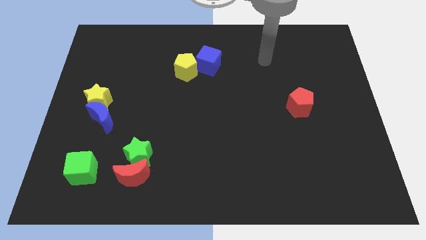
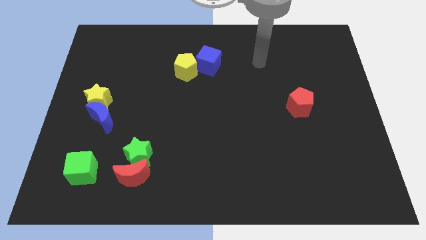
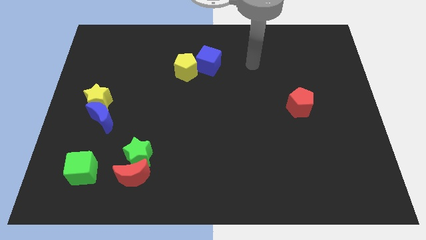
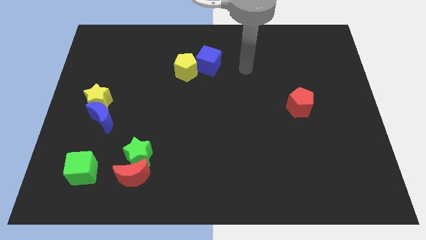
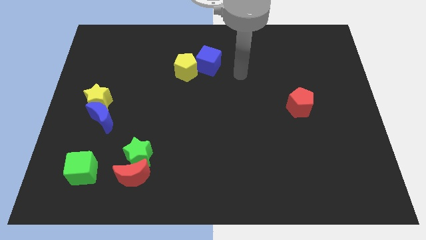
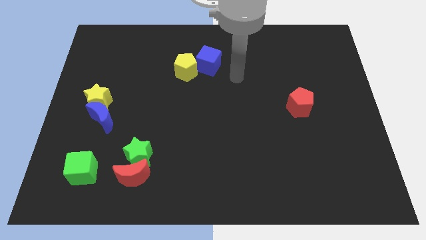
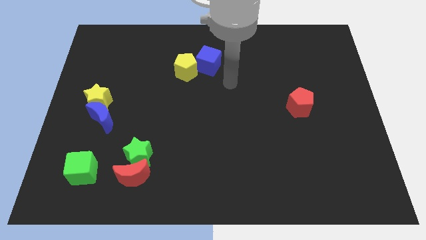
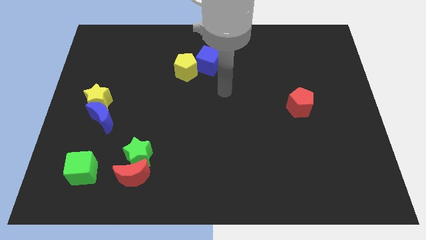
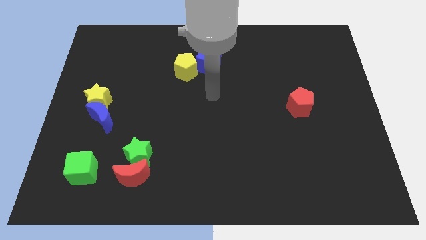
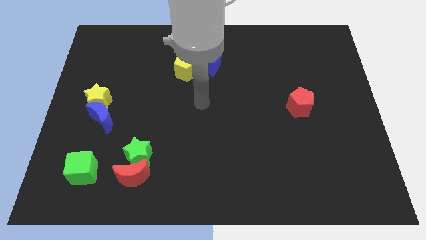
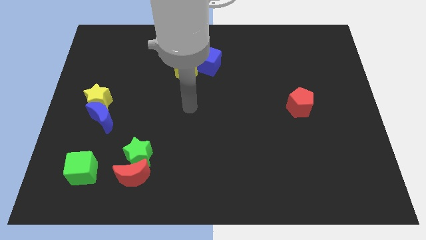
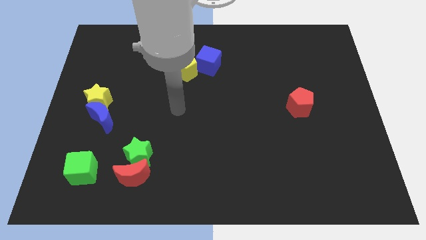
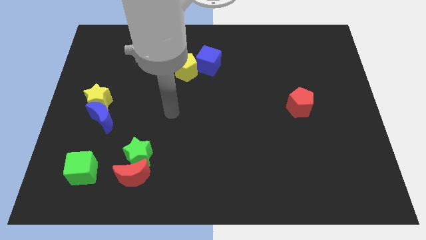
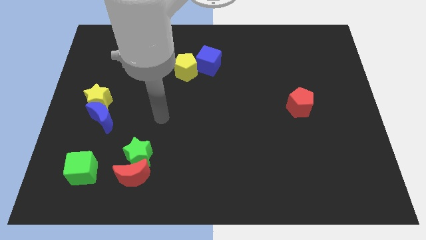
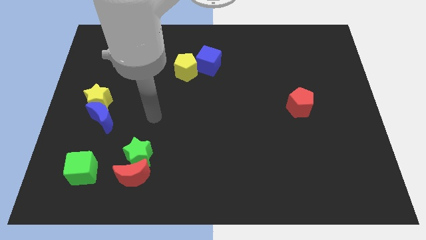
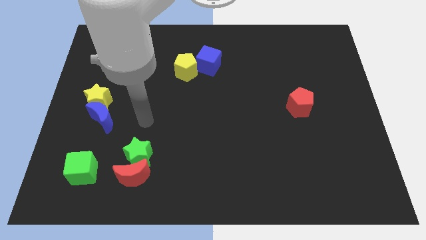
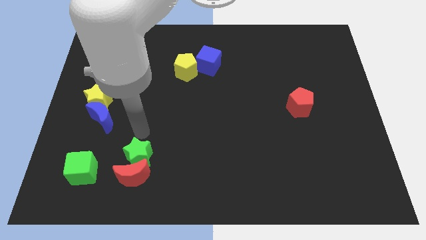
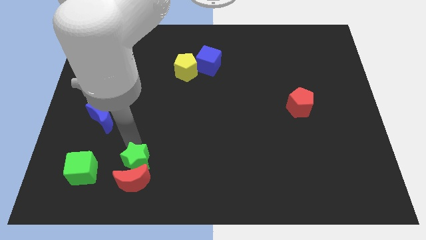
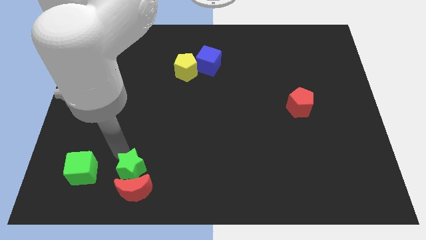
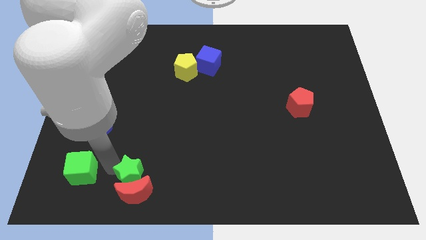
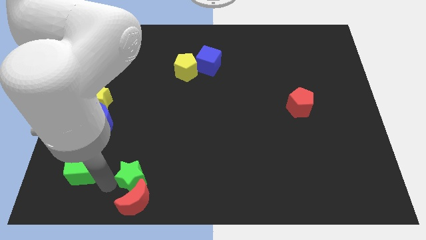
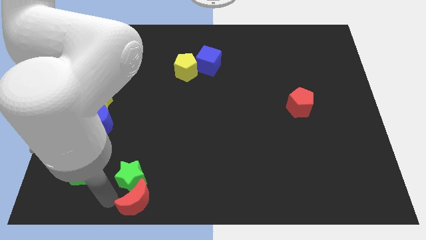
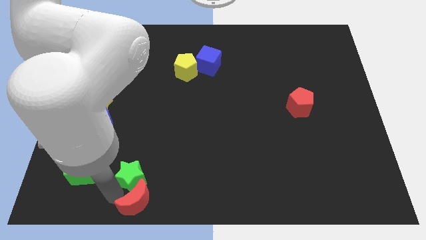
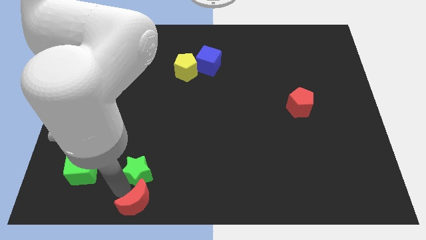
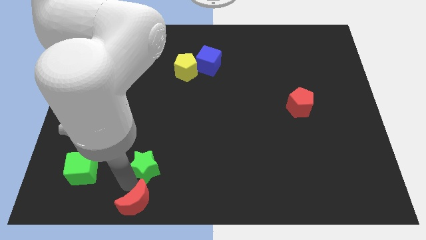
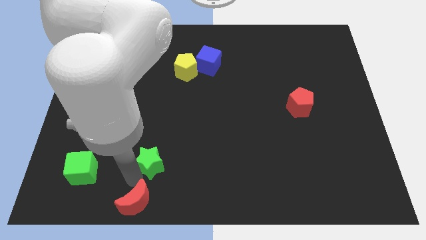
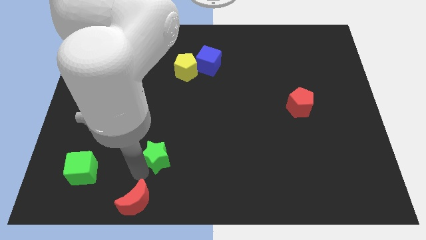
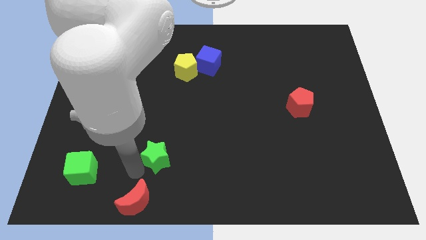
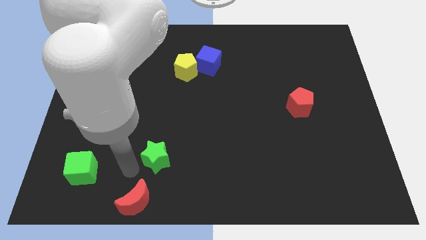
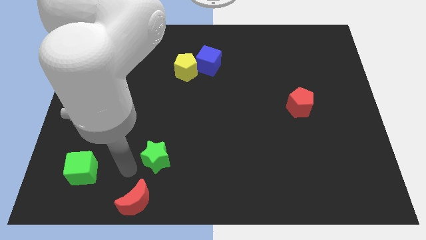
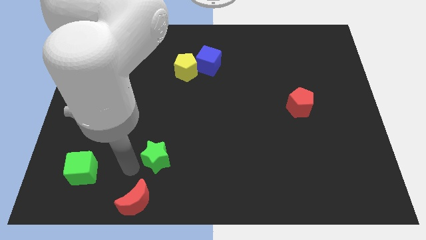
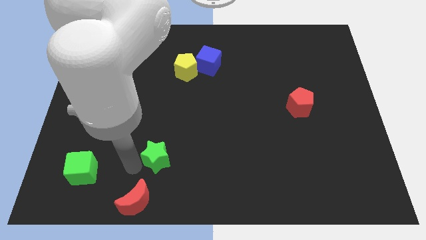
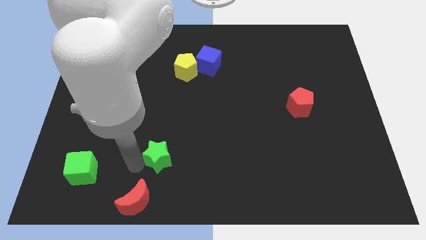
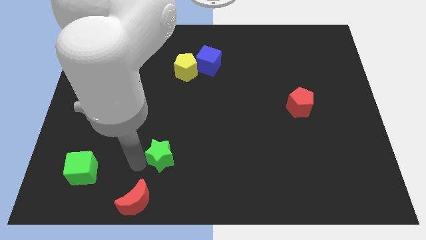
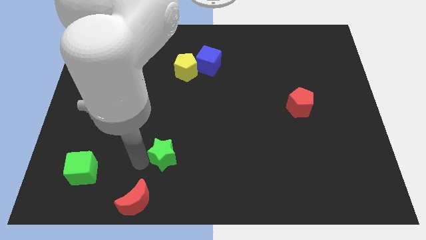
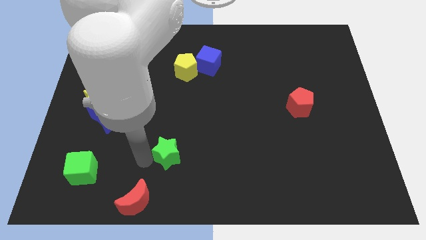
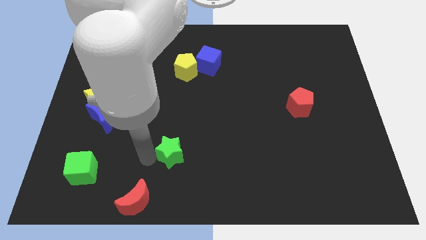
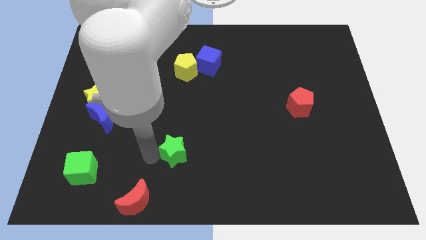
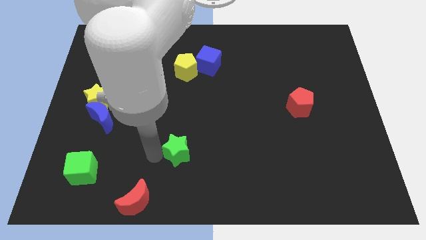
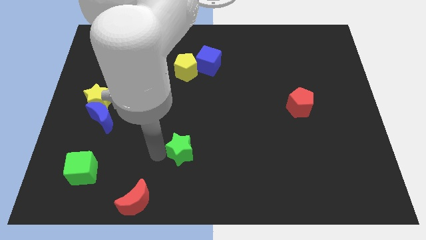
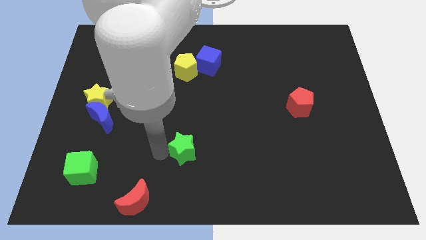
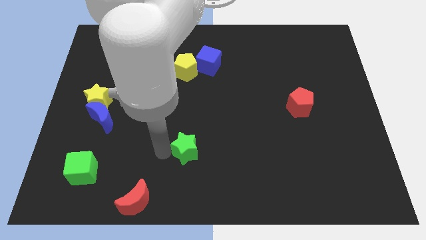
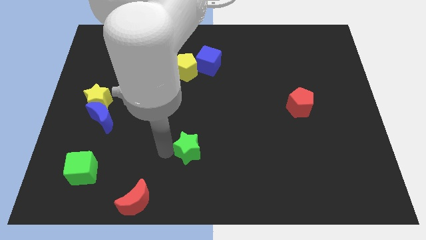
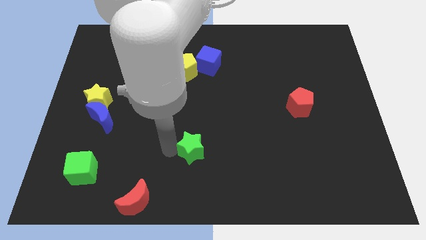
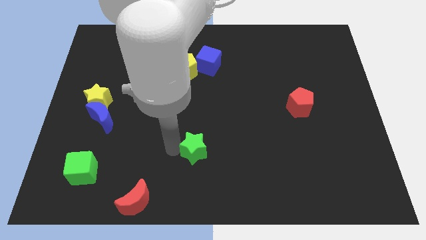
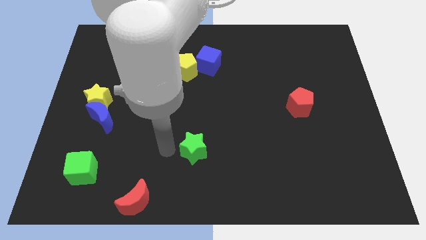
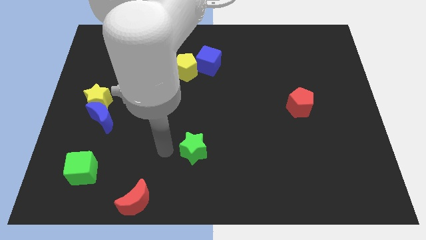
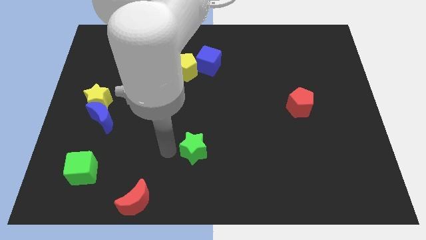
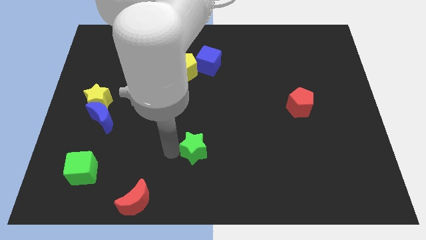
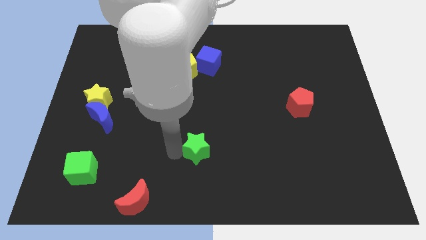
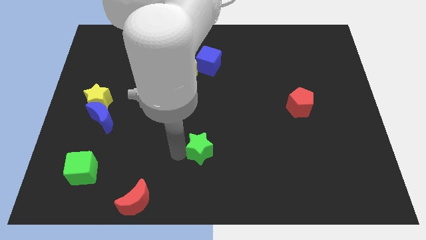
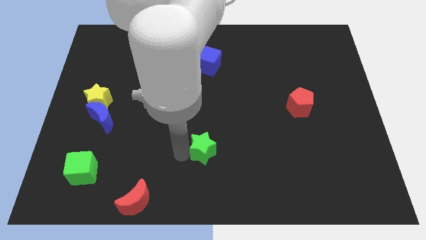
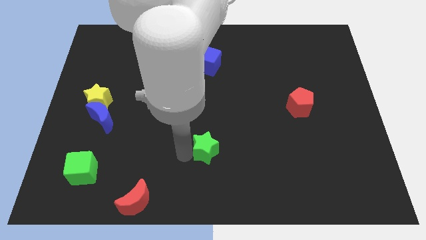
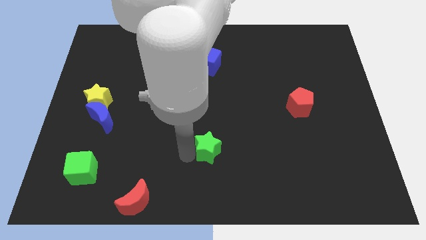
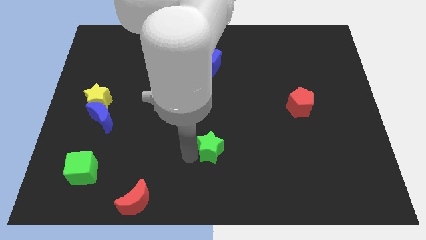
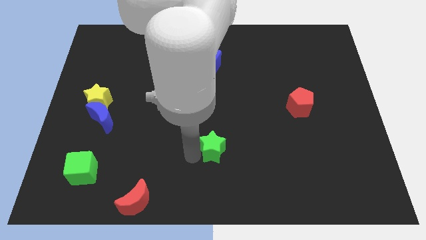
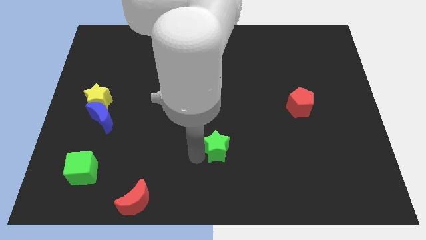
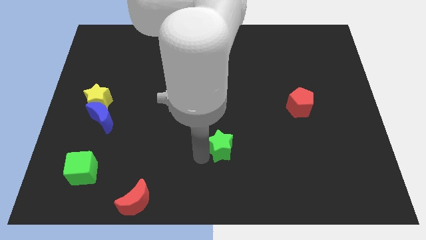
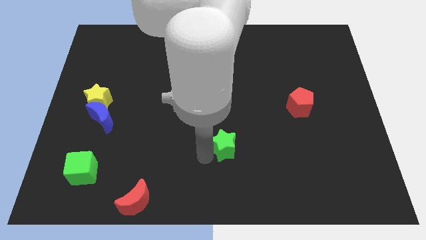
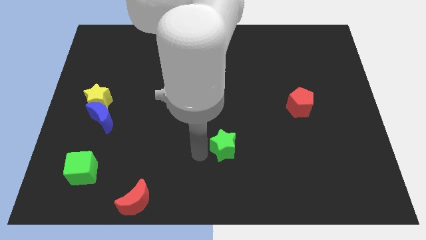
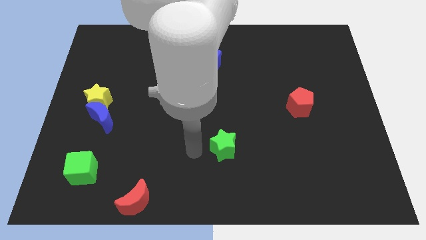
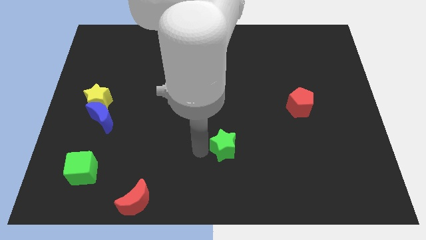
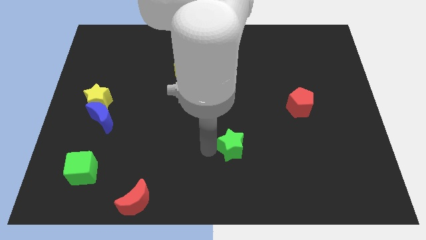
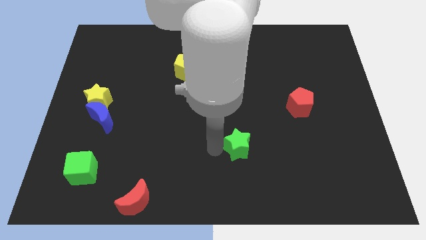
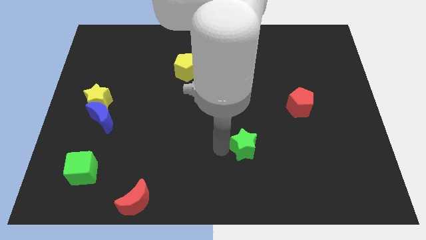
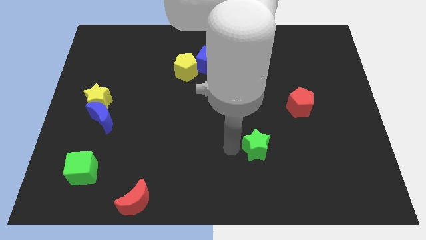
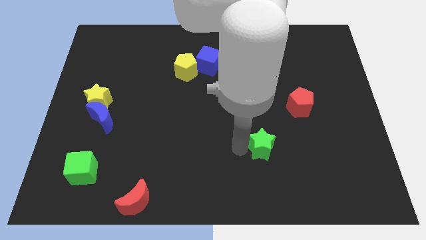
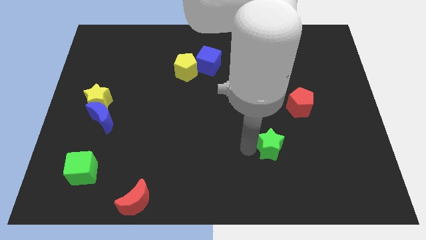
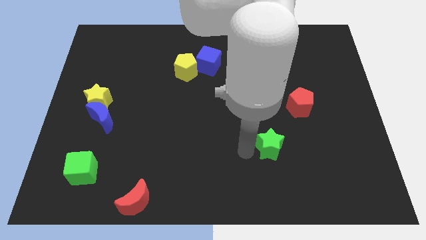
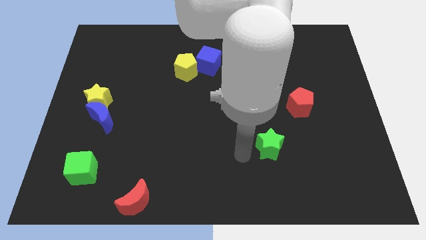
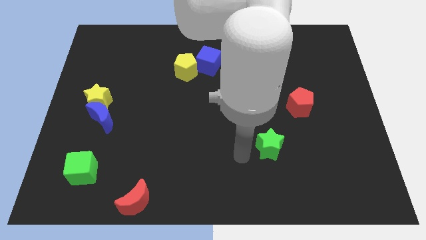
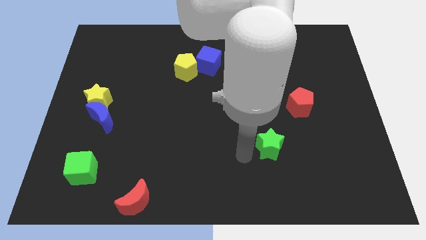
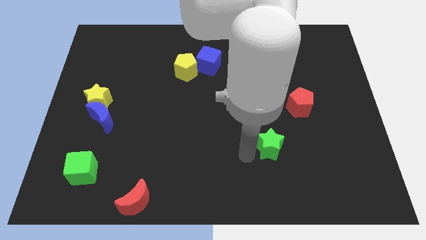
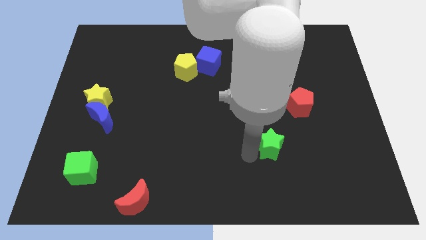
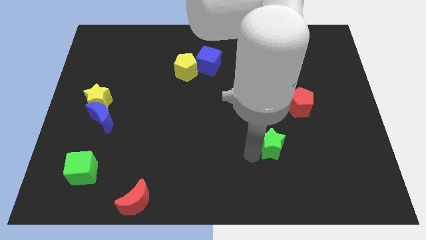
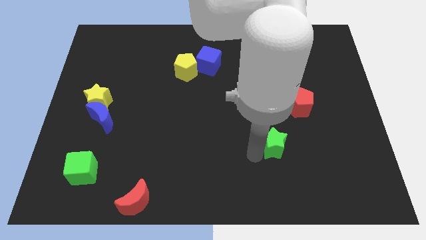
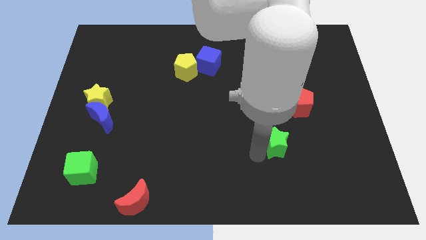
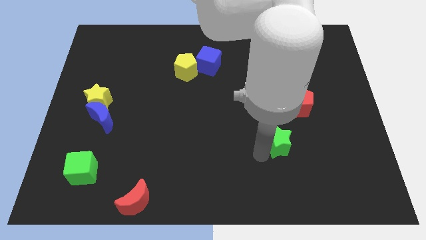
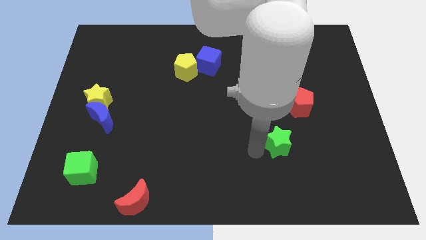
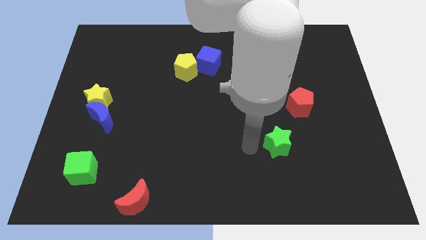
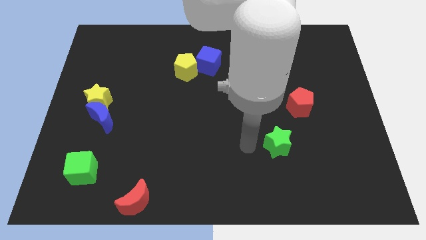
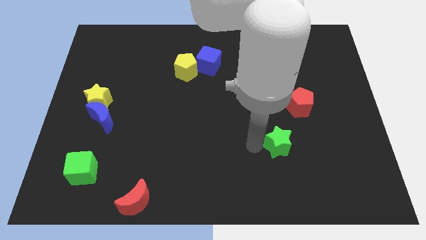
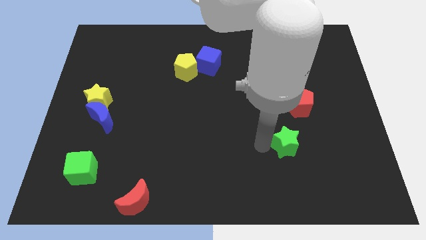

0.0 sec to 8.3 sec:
slide the green star below the red pentagon
